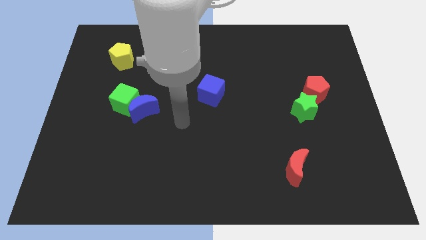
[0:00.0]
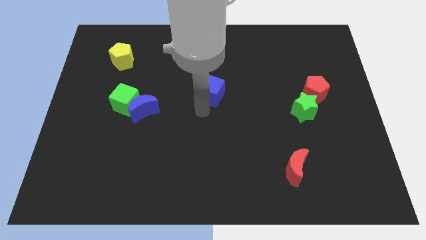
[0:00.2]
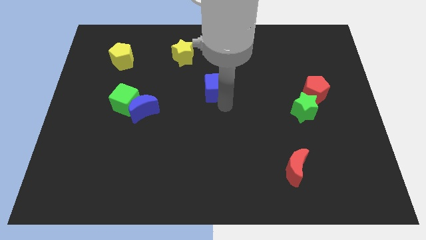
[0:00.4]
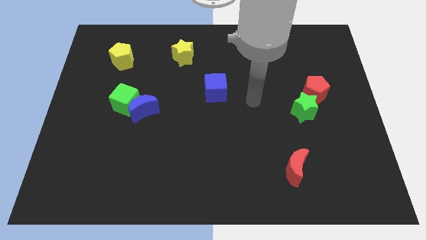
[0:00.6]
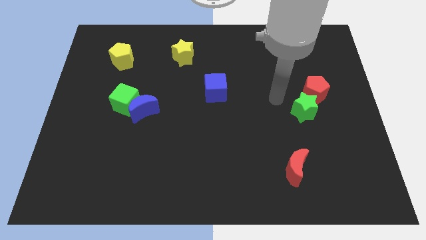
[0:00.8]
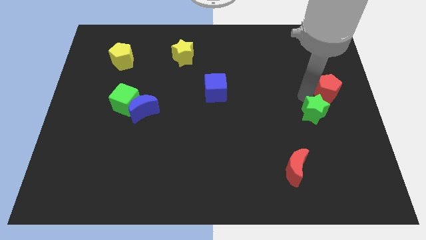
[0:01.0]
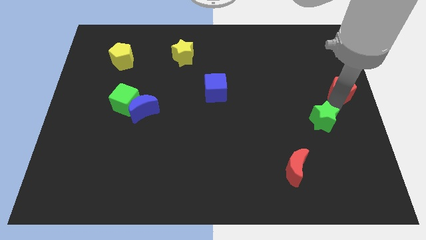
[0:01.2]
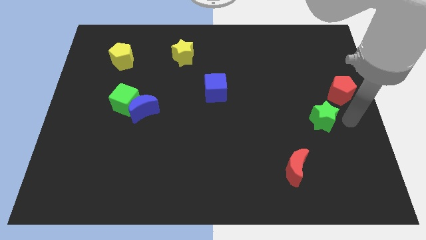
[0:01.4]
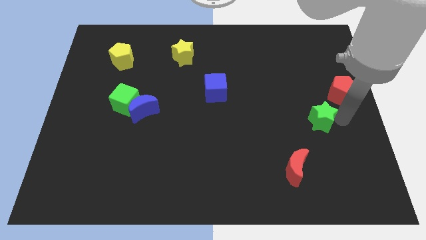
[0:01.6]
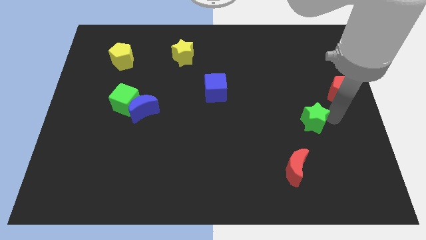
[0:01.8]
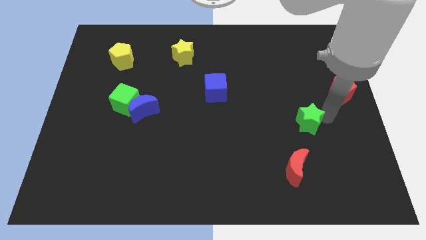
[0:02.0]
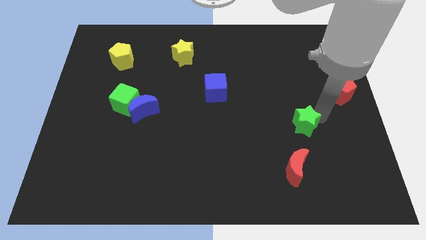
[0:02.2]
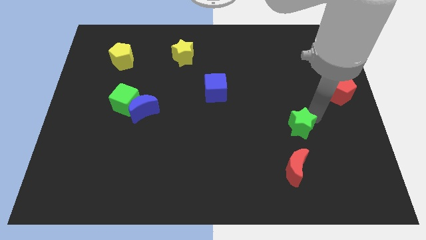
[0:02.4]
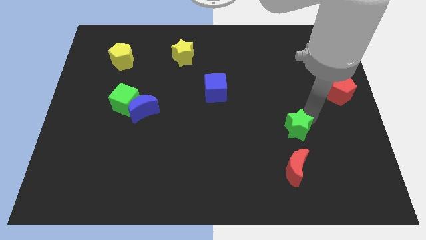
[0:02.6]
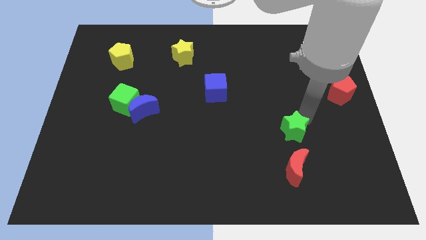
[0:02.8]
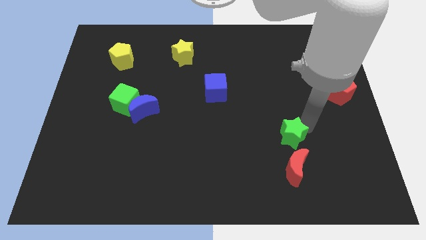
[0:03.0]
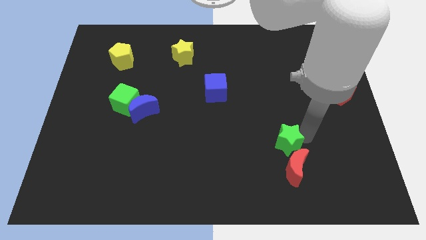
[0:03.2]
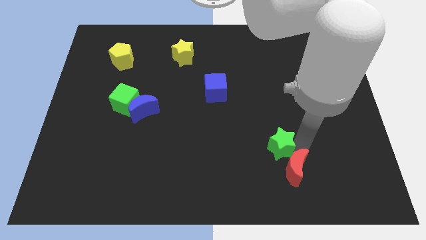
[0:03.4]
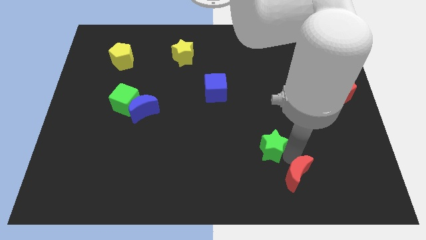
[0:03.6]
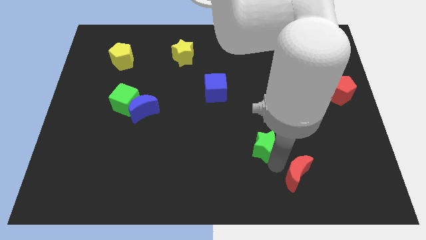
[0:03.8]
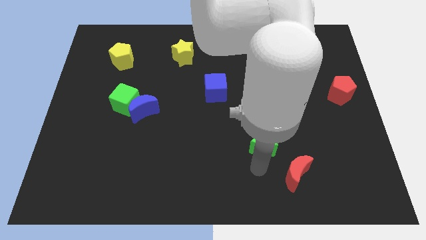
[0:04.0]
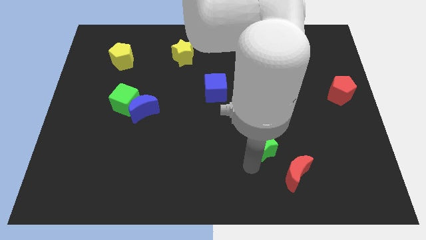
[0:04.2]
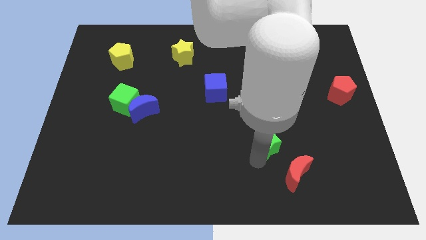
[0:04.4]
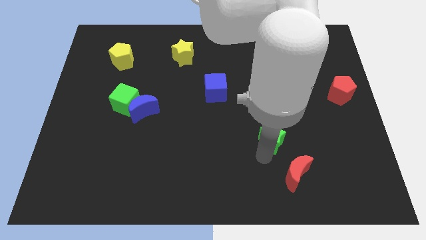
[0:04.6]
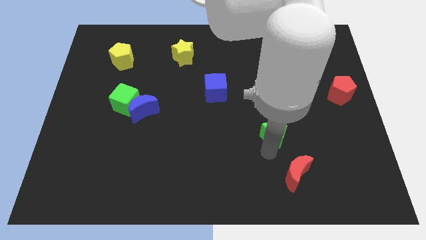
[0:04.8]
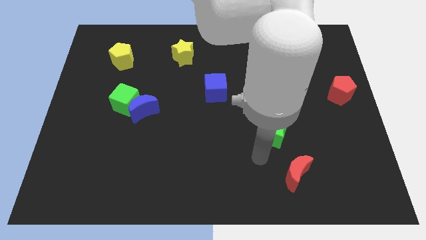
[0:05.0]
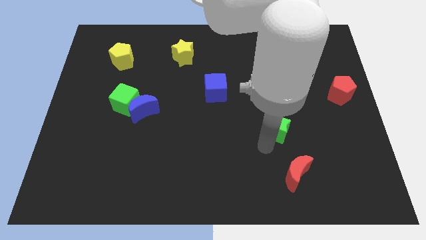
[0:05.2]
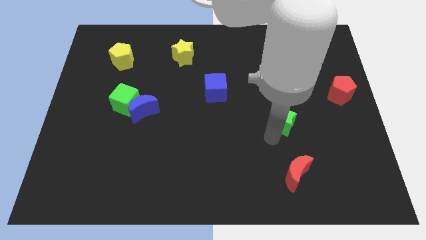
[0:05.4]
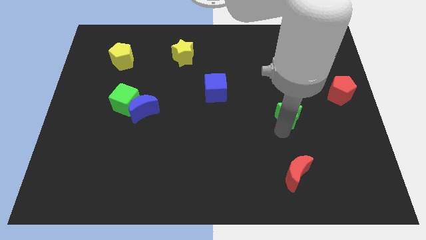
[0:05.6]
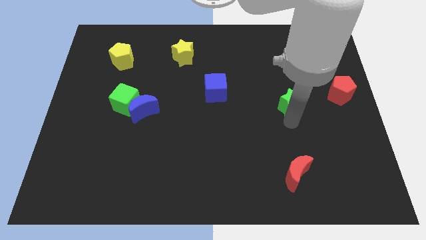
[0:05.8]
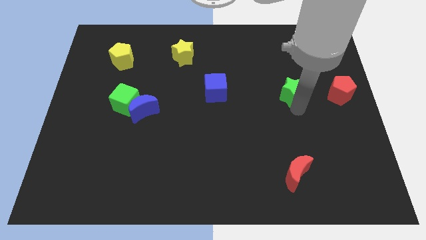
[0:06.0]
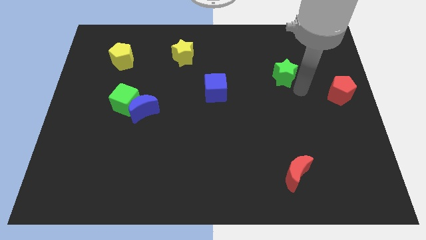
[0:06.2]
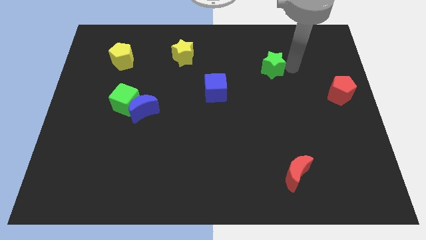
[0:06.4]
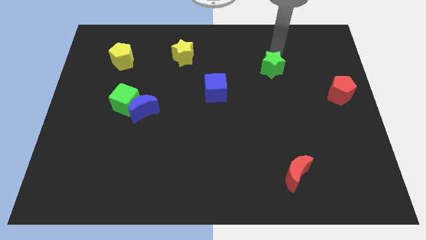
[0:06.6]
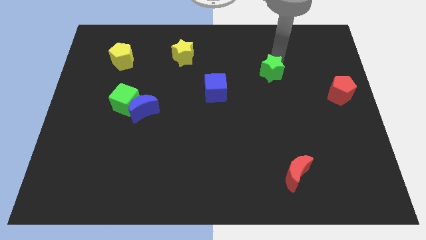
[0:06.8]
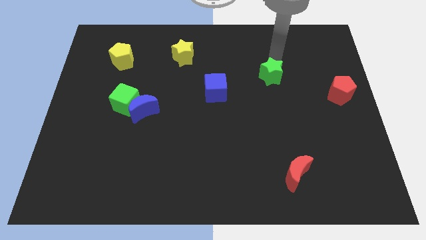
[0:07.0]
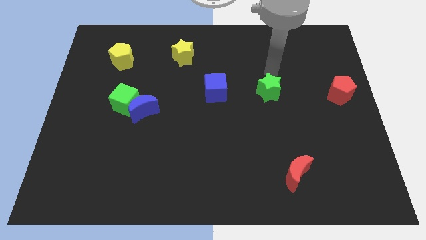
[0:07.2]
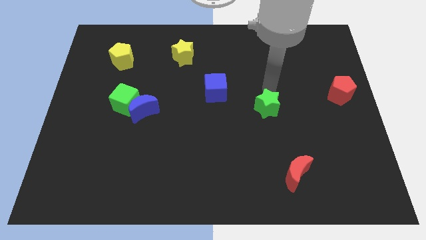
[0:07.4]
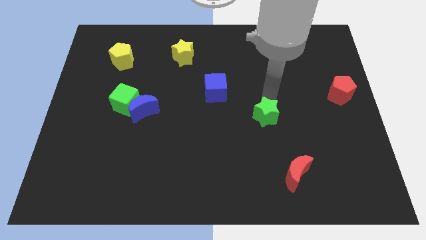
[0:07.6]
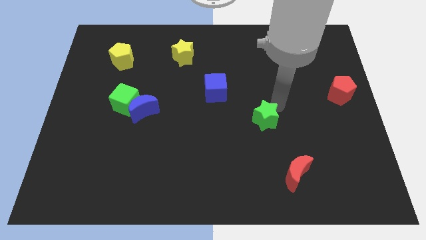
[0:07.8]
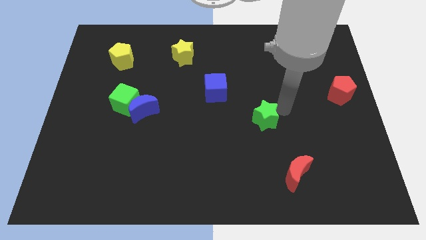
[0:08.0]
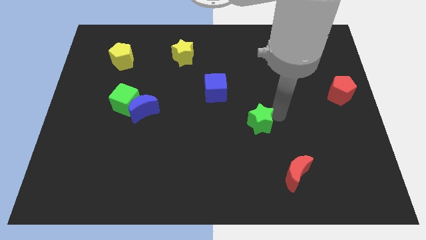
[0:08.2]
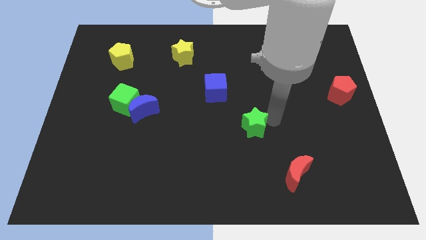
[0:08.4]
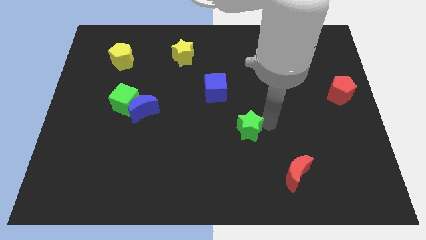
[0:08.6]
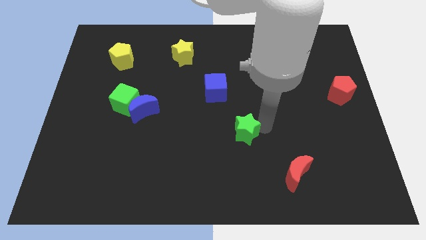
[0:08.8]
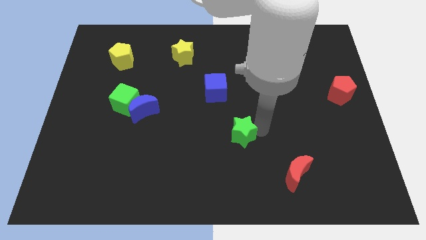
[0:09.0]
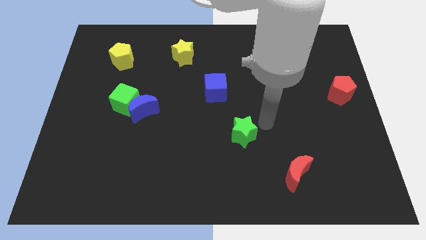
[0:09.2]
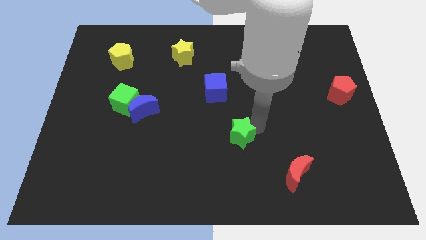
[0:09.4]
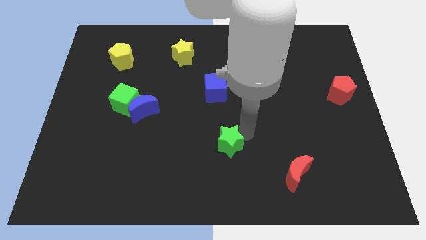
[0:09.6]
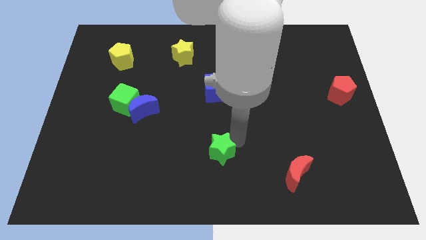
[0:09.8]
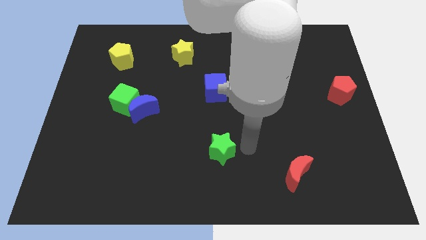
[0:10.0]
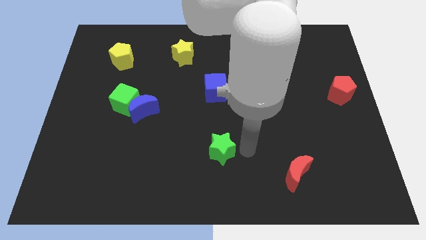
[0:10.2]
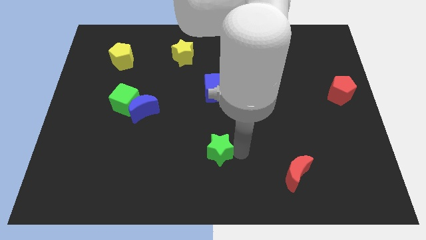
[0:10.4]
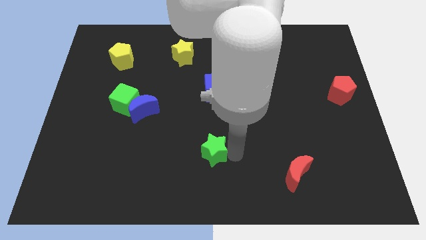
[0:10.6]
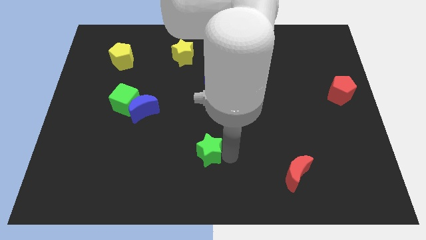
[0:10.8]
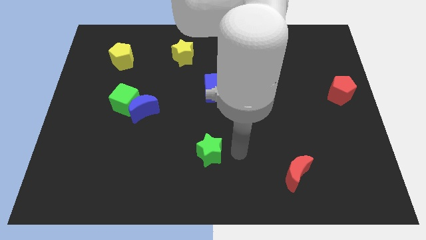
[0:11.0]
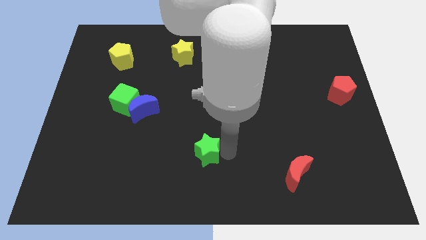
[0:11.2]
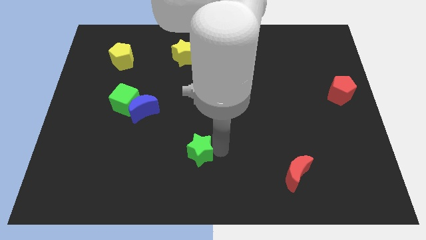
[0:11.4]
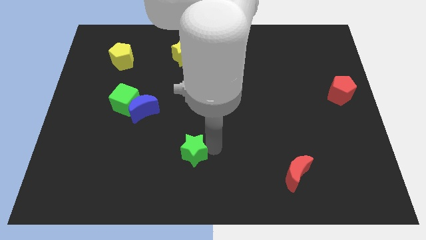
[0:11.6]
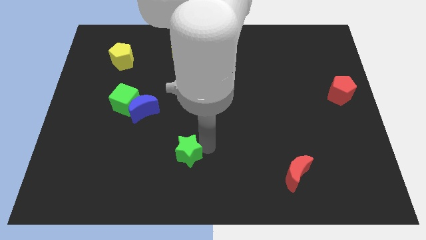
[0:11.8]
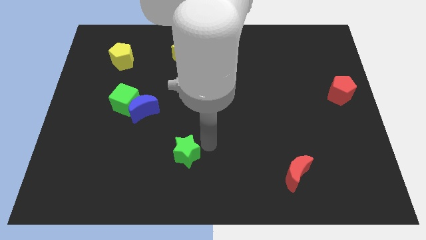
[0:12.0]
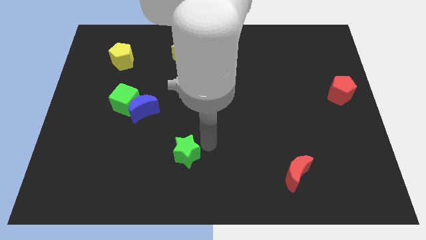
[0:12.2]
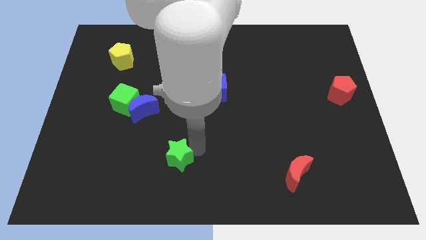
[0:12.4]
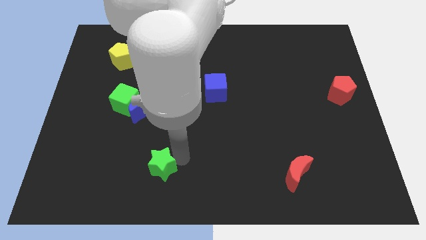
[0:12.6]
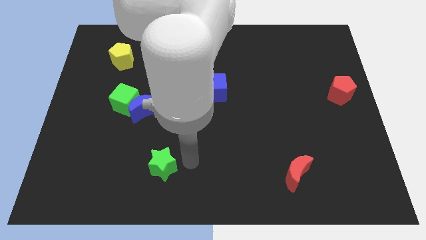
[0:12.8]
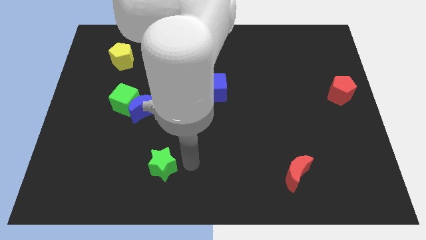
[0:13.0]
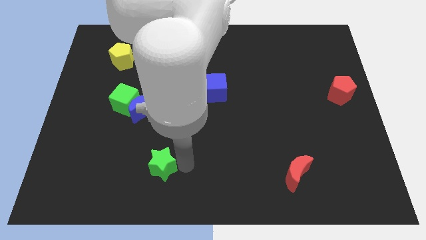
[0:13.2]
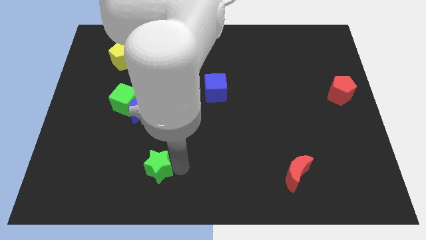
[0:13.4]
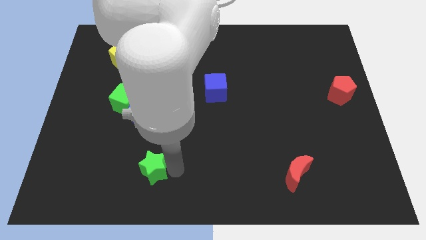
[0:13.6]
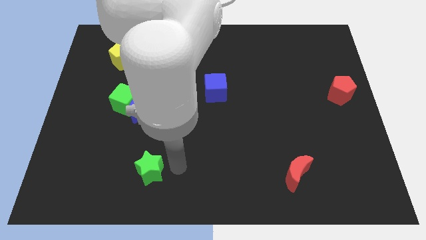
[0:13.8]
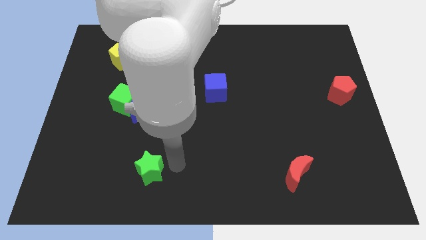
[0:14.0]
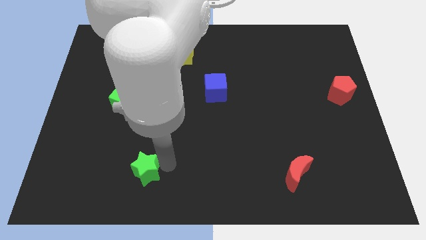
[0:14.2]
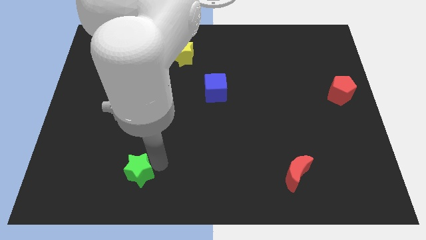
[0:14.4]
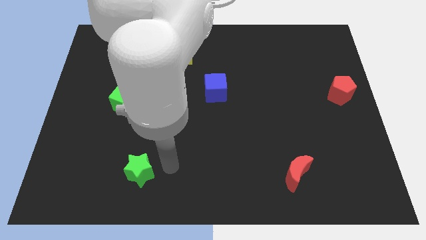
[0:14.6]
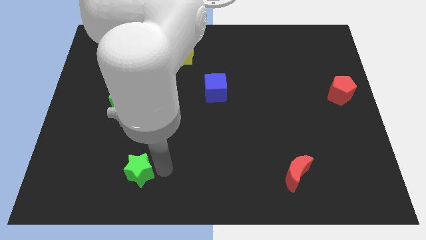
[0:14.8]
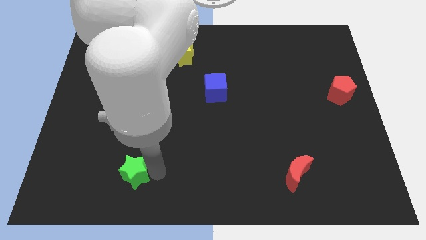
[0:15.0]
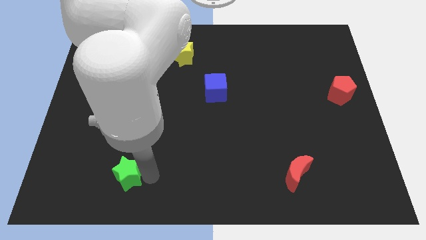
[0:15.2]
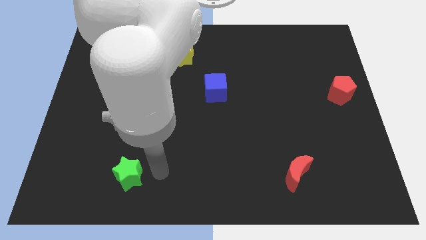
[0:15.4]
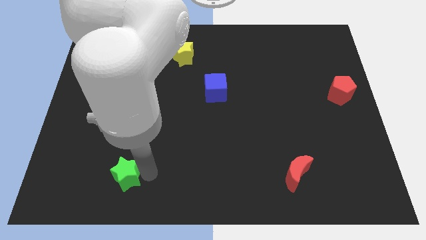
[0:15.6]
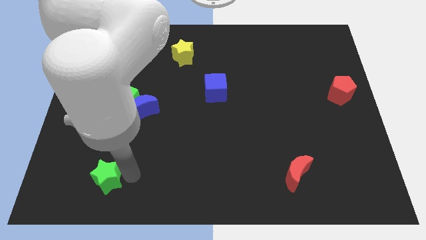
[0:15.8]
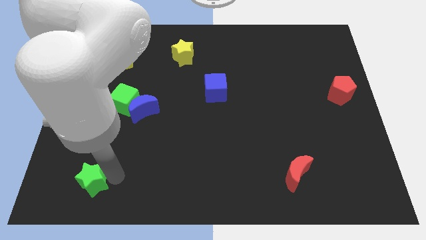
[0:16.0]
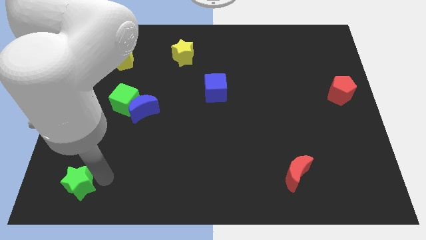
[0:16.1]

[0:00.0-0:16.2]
slide the green star to the bottom left
